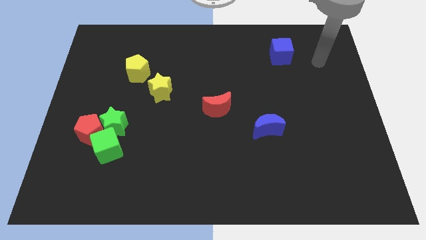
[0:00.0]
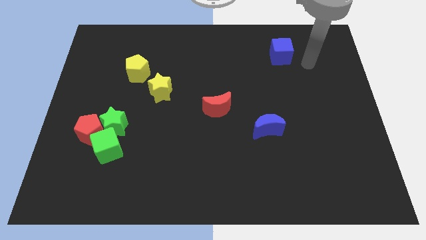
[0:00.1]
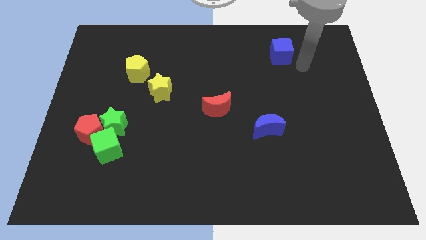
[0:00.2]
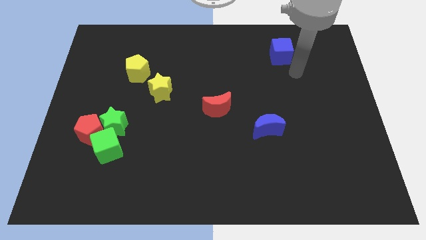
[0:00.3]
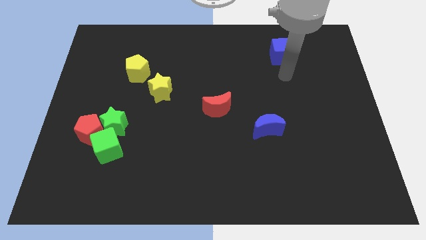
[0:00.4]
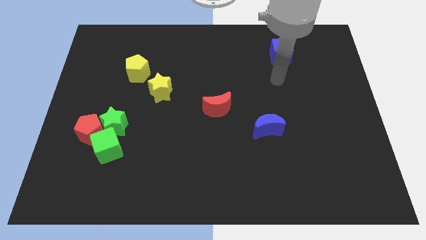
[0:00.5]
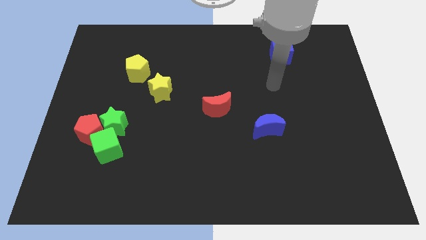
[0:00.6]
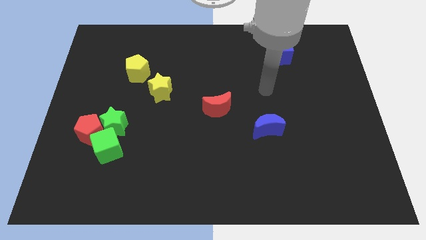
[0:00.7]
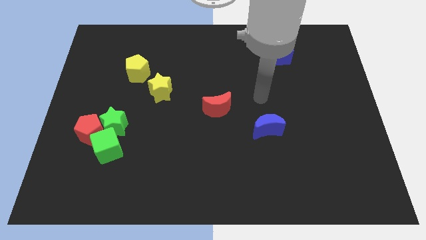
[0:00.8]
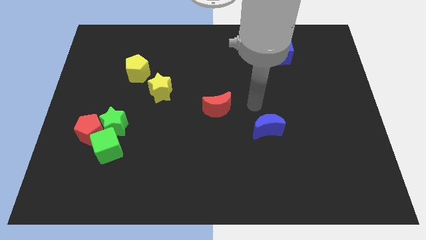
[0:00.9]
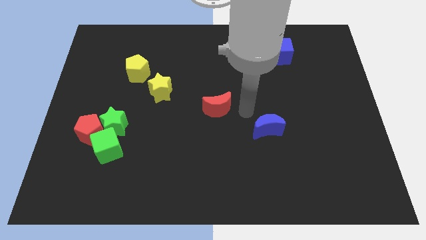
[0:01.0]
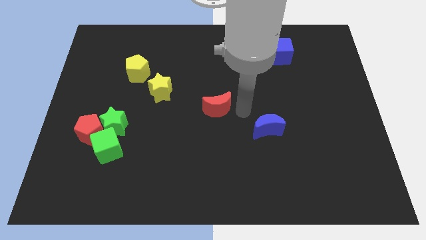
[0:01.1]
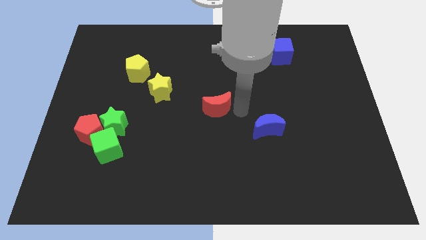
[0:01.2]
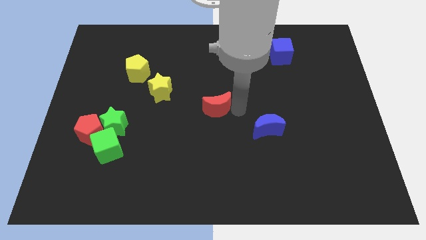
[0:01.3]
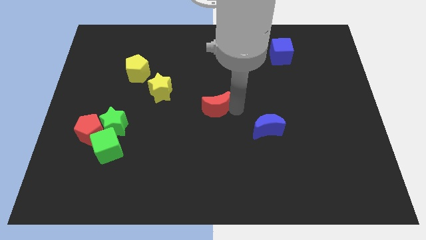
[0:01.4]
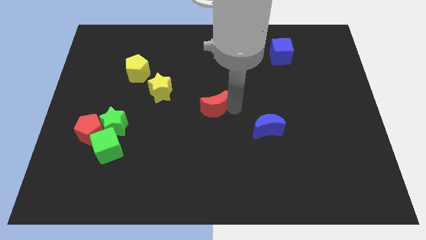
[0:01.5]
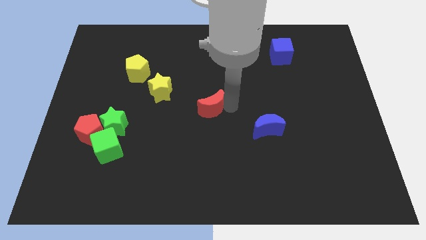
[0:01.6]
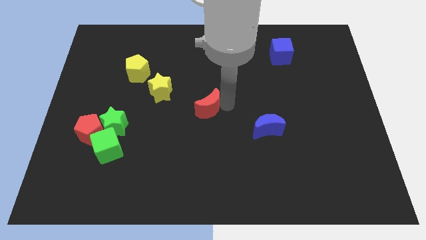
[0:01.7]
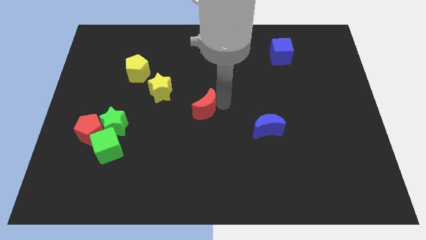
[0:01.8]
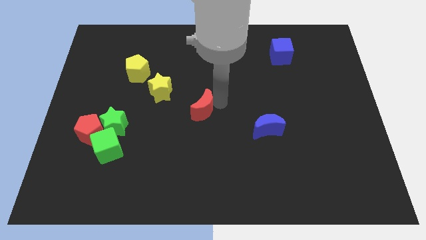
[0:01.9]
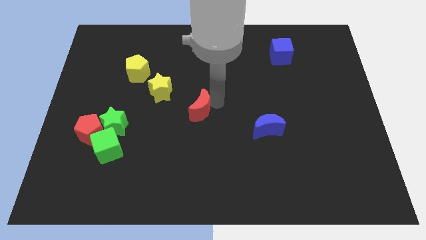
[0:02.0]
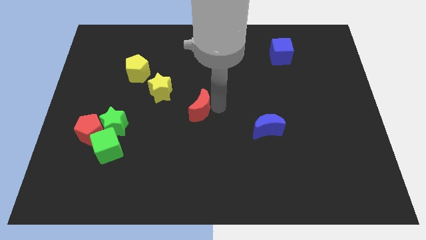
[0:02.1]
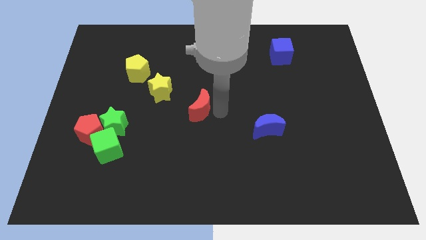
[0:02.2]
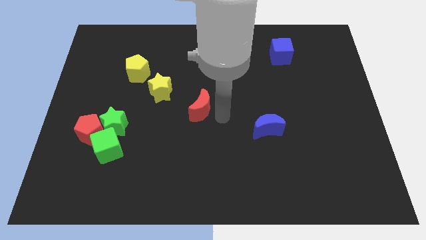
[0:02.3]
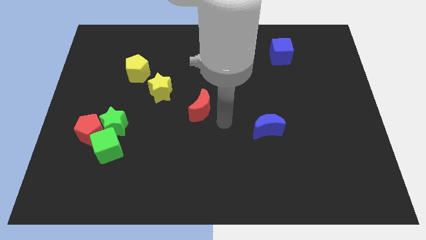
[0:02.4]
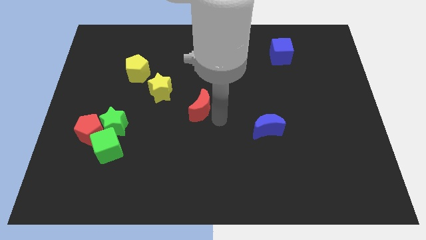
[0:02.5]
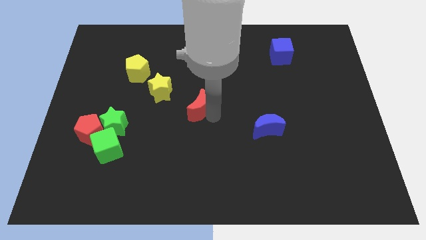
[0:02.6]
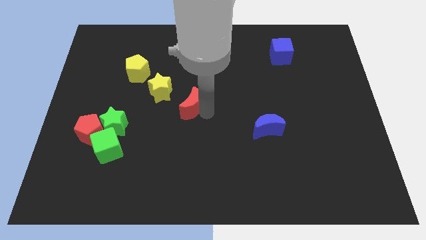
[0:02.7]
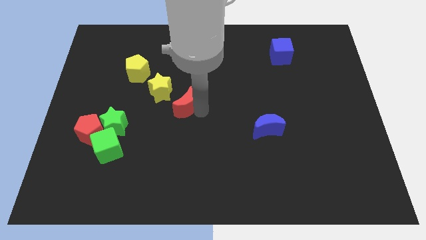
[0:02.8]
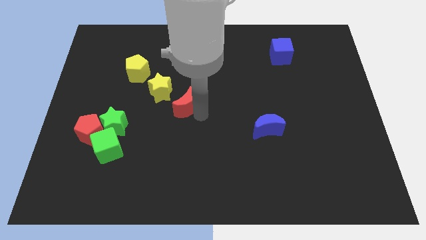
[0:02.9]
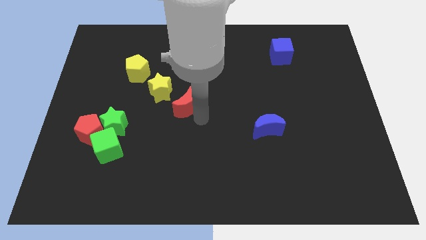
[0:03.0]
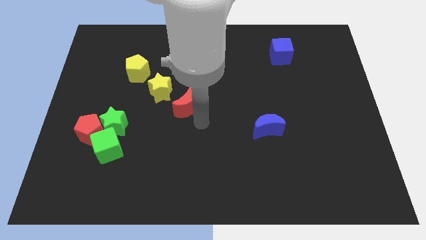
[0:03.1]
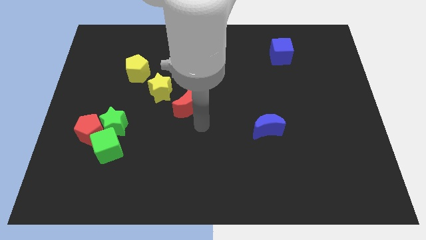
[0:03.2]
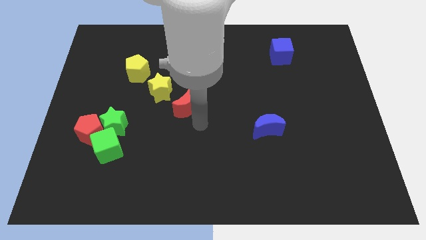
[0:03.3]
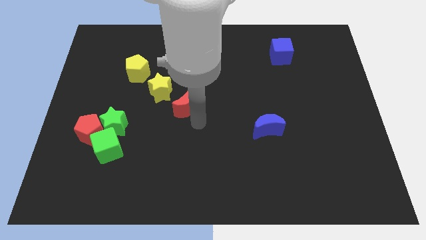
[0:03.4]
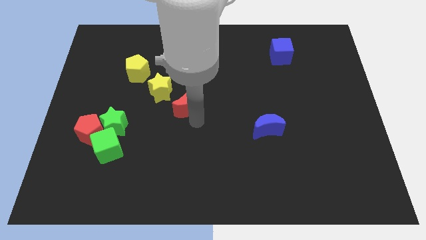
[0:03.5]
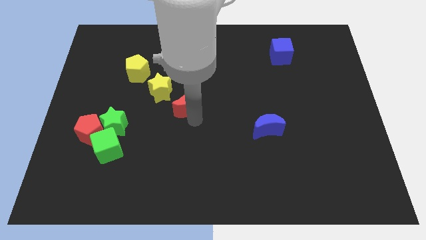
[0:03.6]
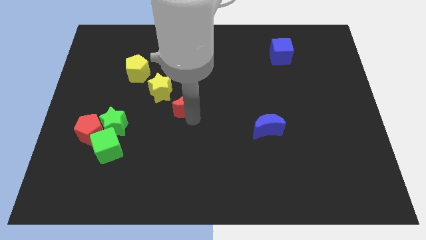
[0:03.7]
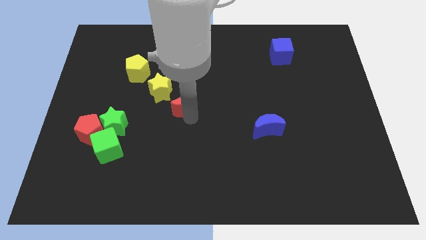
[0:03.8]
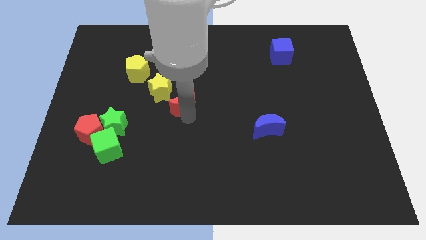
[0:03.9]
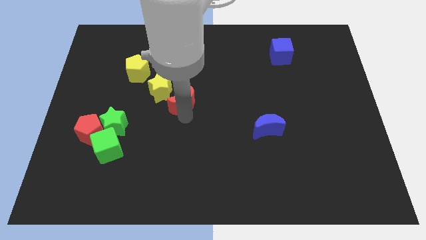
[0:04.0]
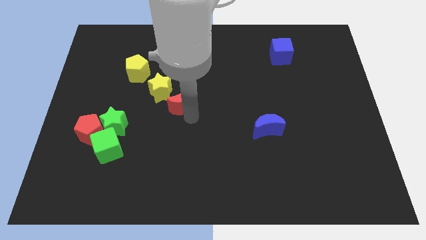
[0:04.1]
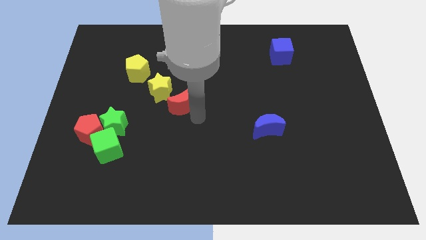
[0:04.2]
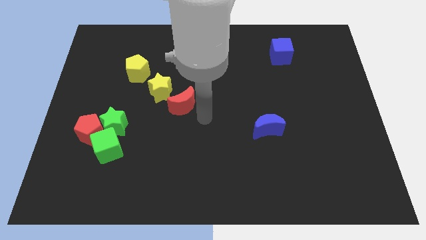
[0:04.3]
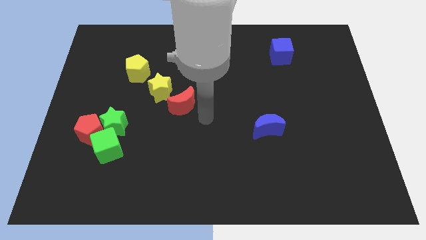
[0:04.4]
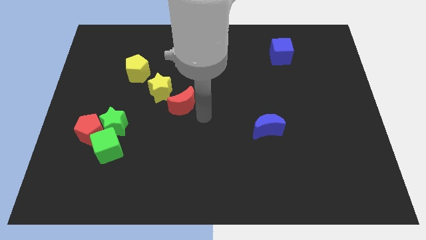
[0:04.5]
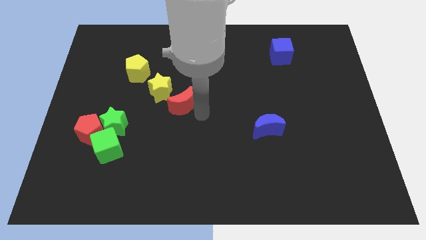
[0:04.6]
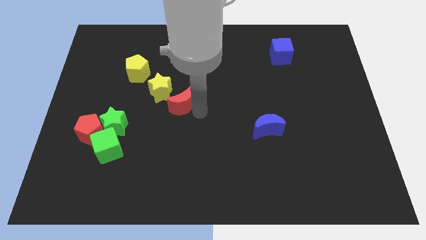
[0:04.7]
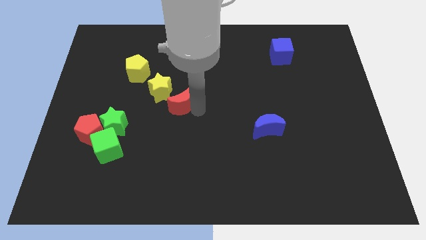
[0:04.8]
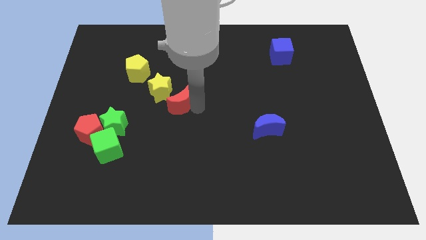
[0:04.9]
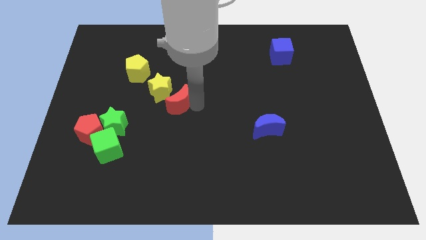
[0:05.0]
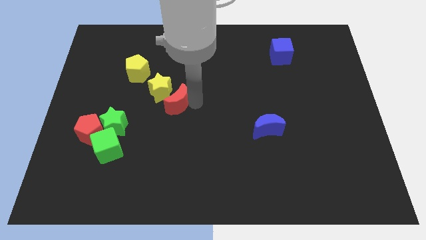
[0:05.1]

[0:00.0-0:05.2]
move the red moon close to the yellow star

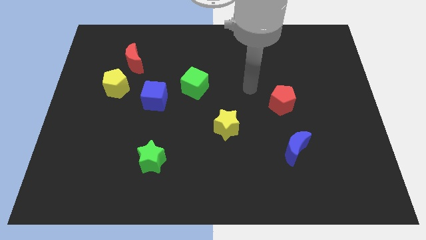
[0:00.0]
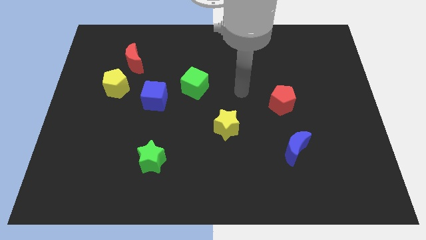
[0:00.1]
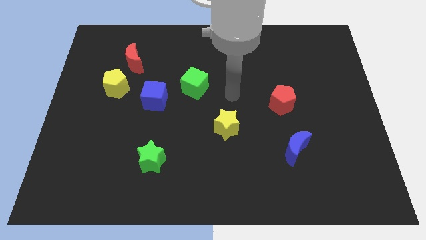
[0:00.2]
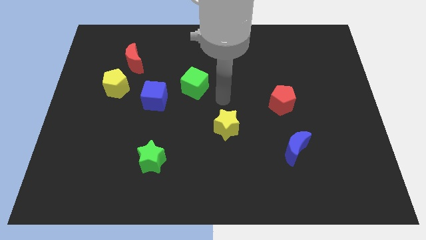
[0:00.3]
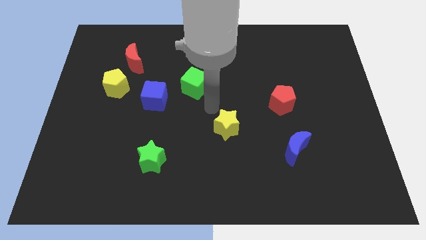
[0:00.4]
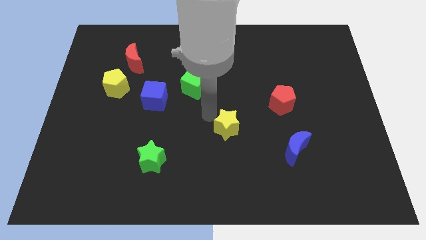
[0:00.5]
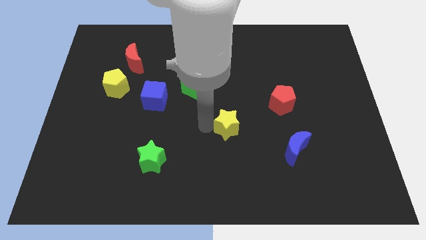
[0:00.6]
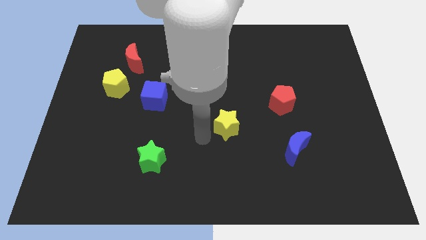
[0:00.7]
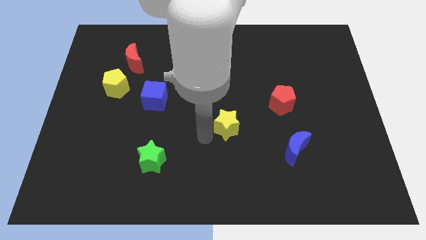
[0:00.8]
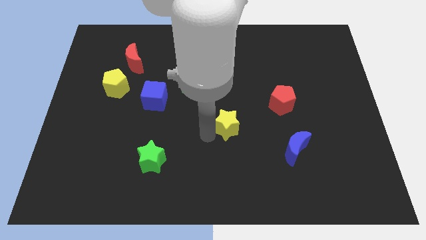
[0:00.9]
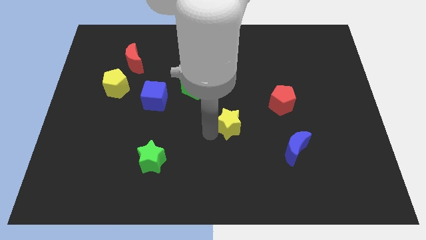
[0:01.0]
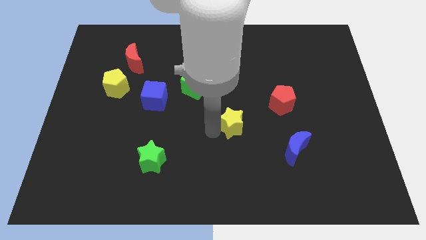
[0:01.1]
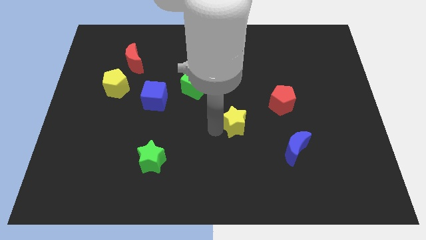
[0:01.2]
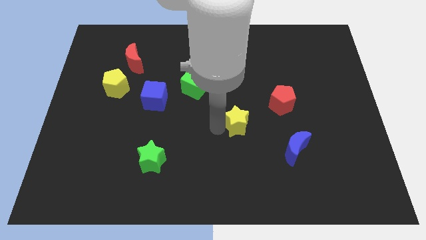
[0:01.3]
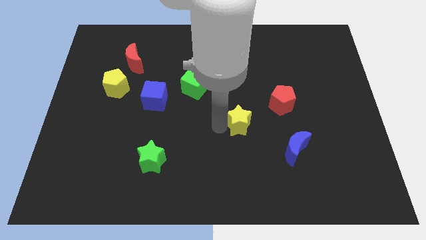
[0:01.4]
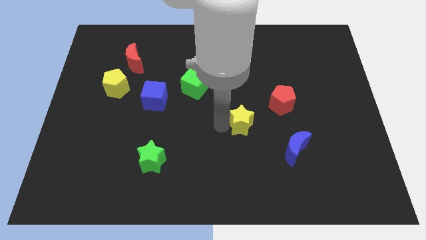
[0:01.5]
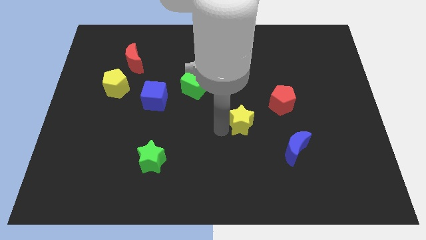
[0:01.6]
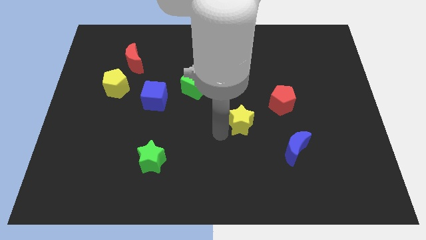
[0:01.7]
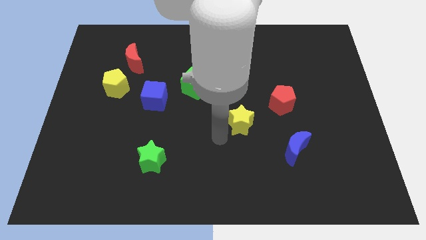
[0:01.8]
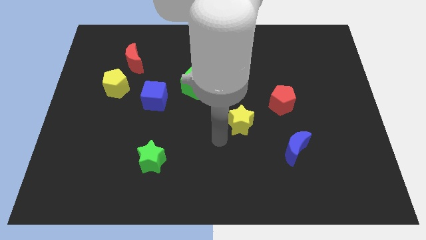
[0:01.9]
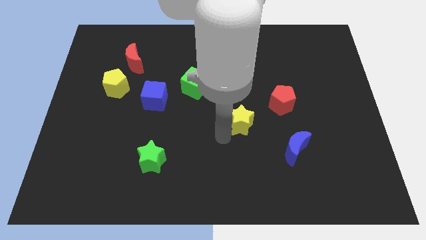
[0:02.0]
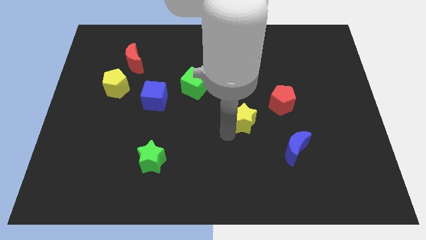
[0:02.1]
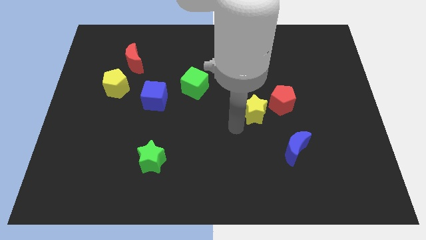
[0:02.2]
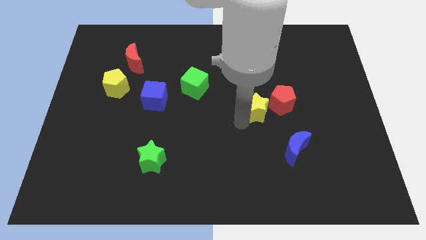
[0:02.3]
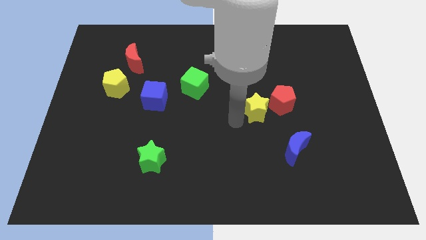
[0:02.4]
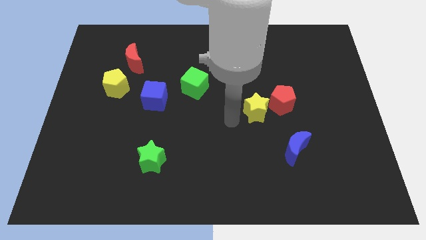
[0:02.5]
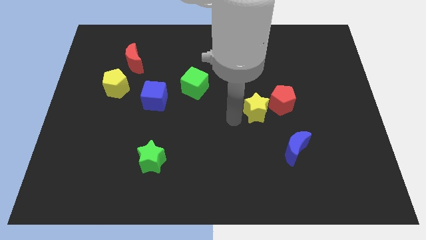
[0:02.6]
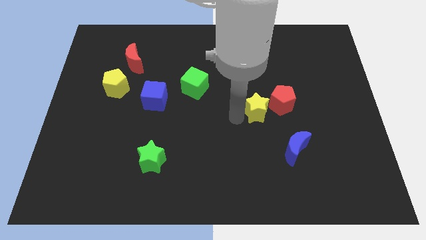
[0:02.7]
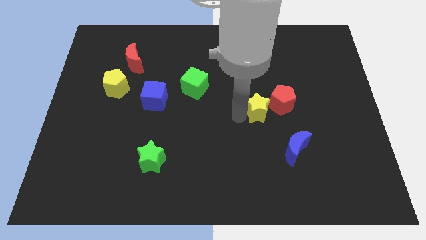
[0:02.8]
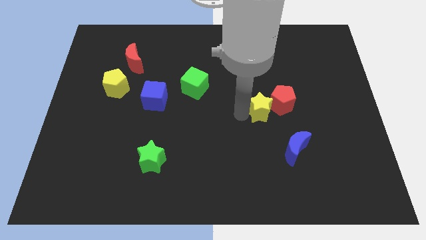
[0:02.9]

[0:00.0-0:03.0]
move the yellow star towards the red pentagon
